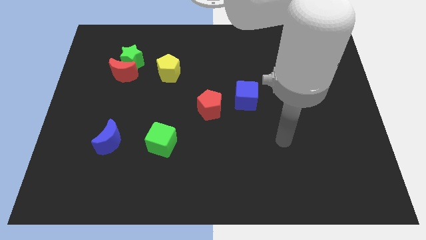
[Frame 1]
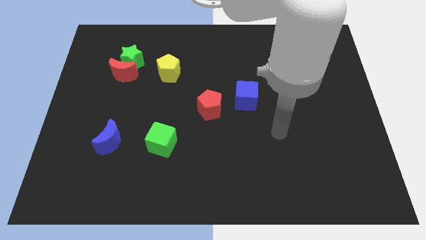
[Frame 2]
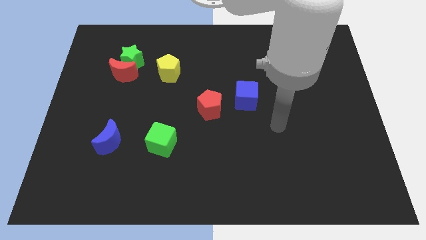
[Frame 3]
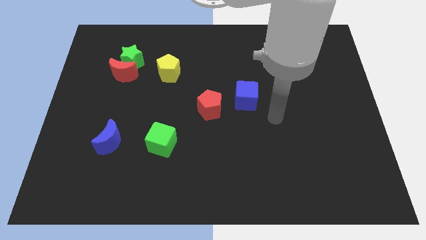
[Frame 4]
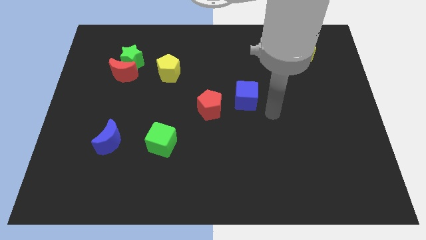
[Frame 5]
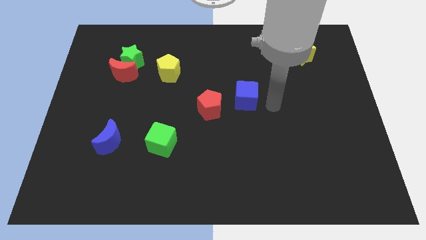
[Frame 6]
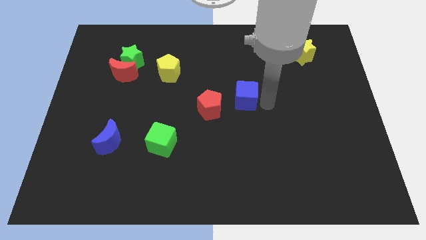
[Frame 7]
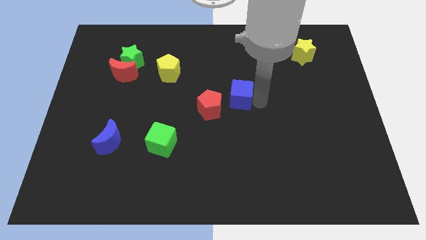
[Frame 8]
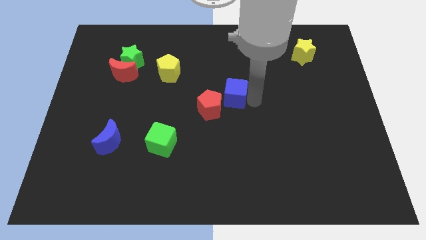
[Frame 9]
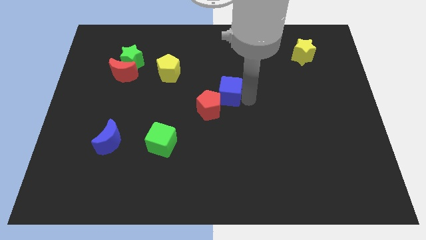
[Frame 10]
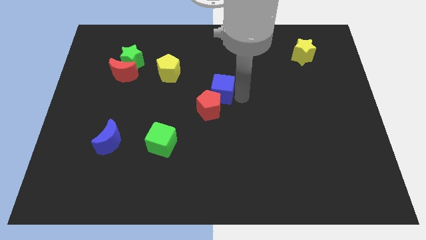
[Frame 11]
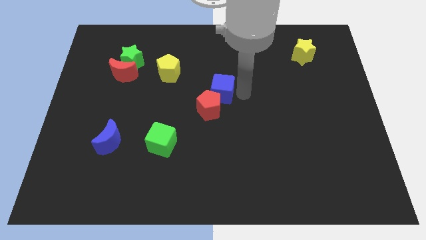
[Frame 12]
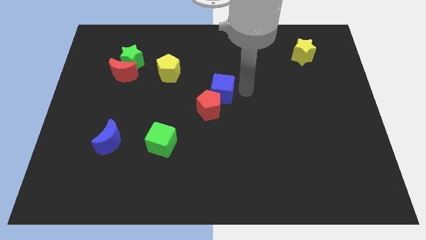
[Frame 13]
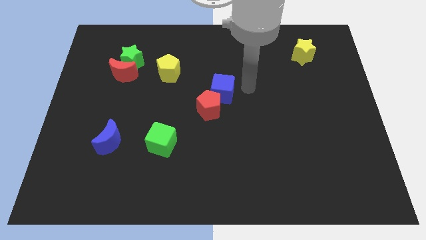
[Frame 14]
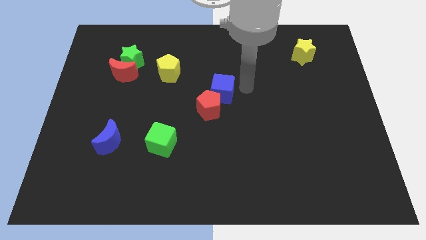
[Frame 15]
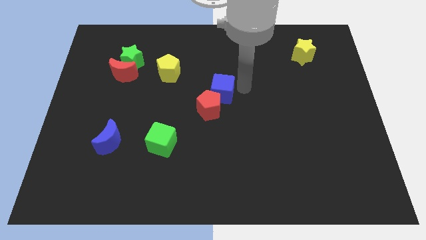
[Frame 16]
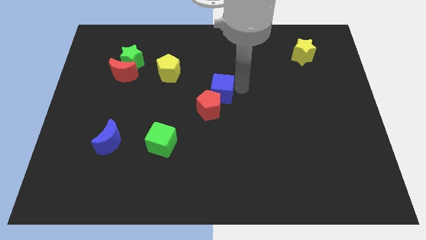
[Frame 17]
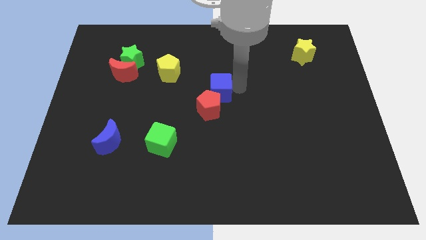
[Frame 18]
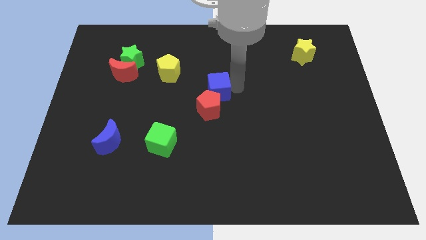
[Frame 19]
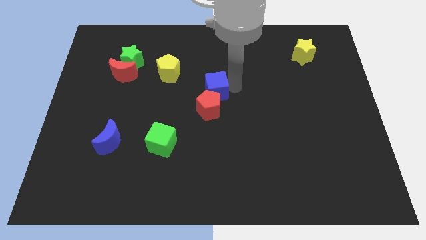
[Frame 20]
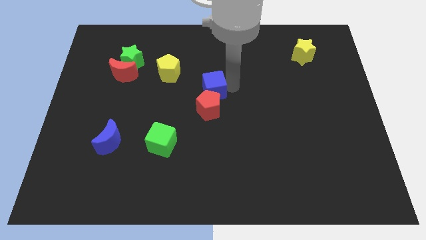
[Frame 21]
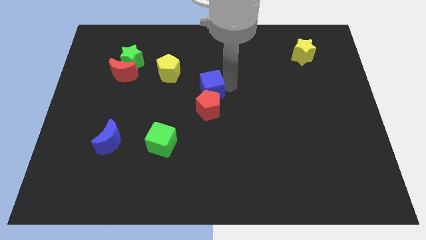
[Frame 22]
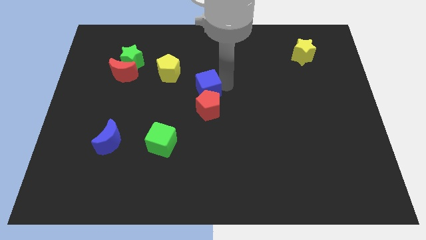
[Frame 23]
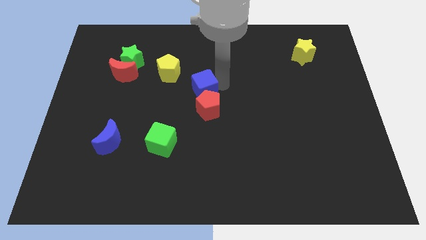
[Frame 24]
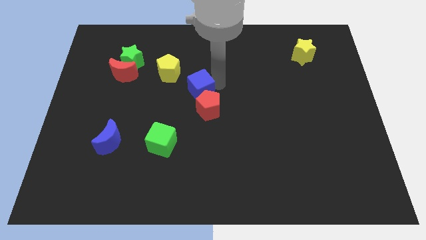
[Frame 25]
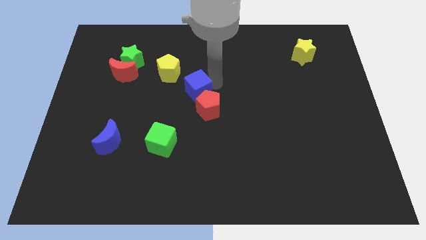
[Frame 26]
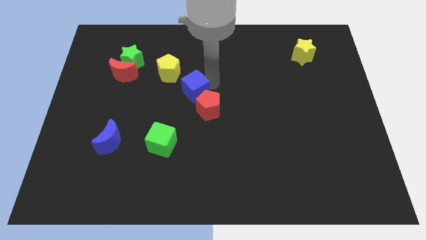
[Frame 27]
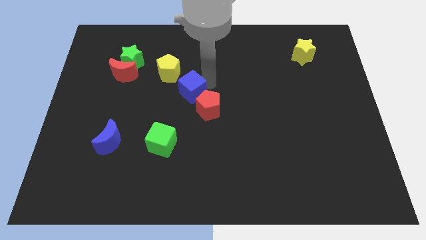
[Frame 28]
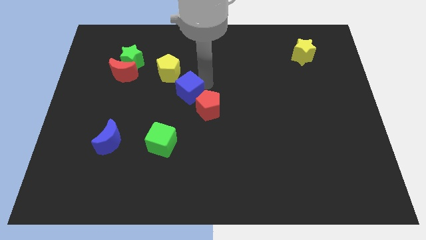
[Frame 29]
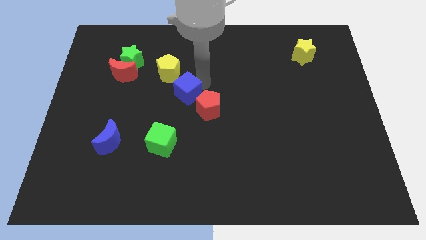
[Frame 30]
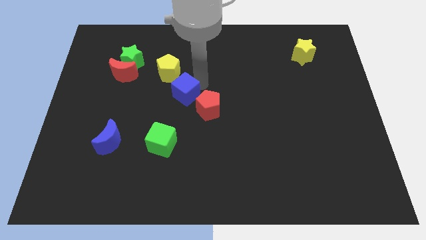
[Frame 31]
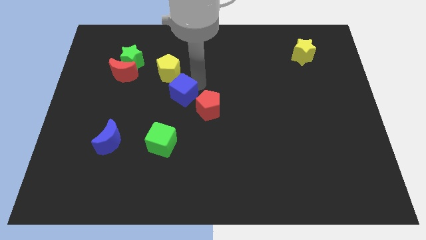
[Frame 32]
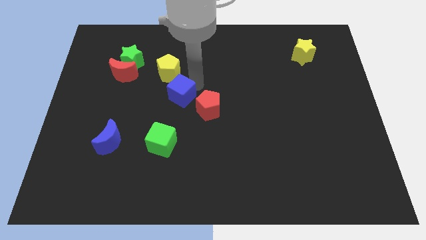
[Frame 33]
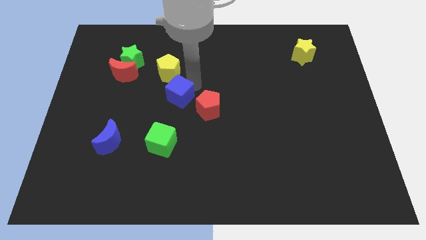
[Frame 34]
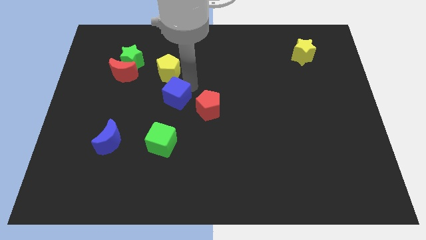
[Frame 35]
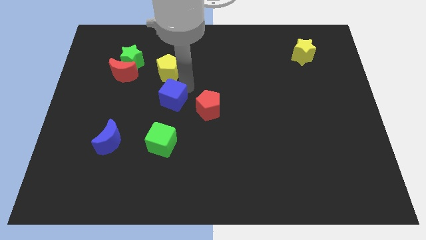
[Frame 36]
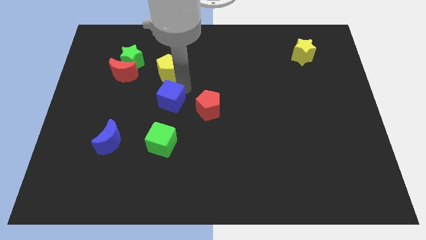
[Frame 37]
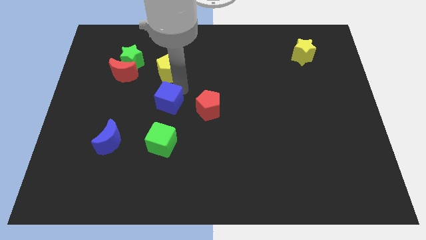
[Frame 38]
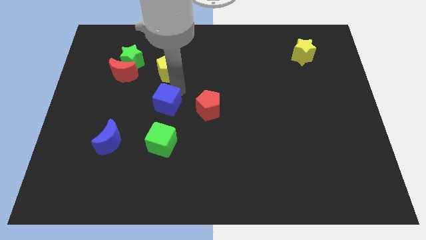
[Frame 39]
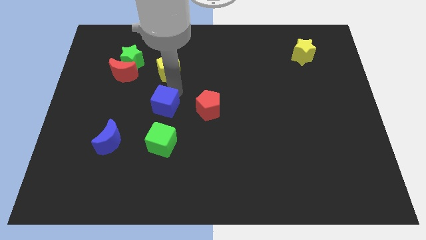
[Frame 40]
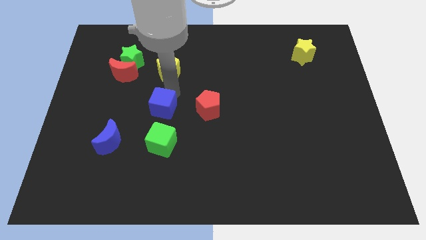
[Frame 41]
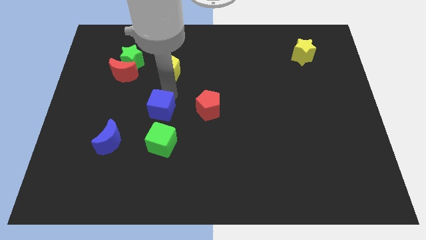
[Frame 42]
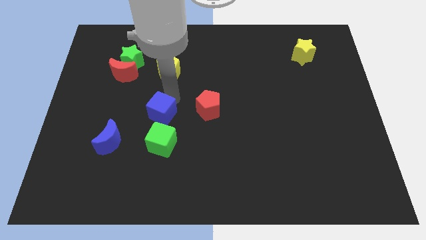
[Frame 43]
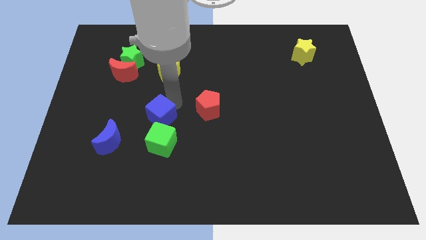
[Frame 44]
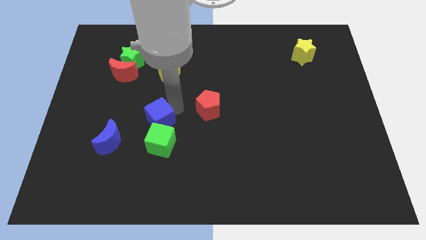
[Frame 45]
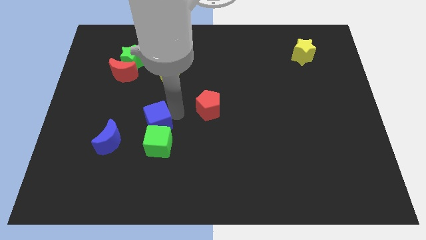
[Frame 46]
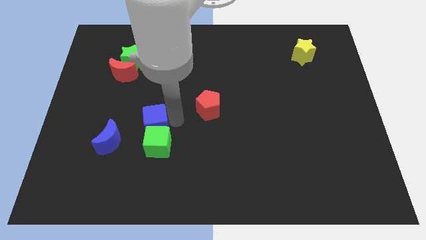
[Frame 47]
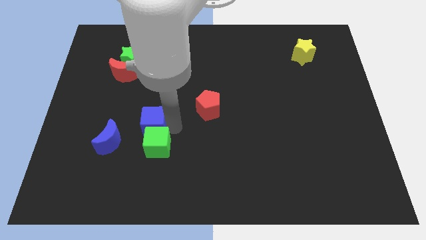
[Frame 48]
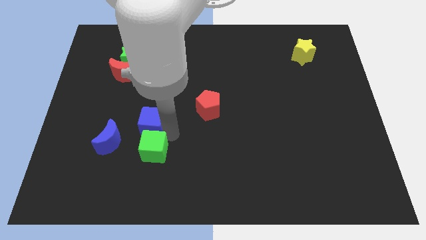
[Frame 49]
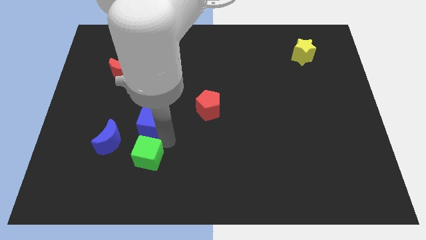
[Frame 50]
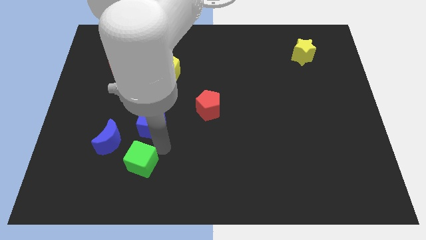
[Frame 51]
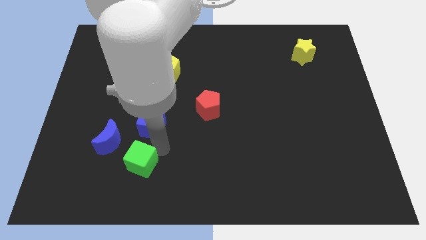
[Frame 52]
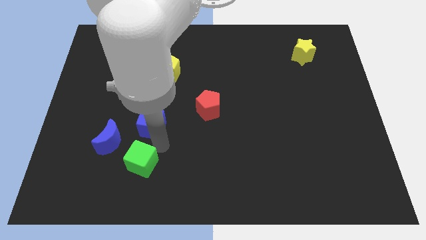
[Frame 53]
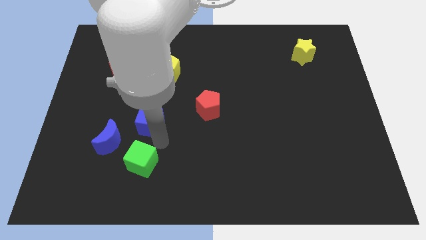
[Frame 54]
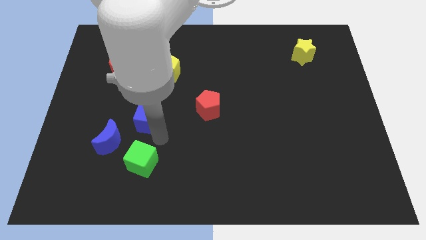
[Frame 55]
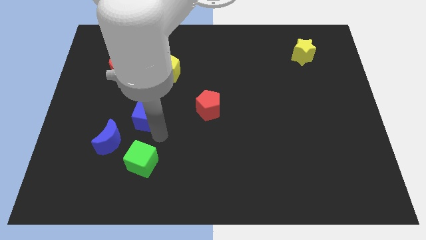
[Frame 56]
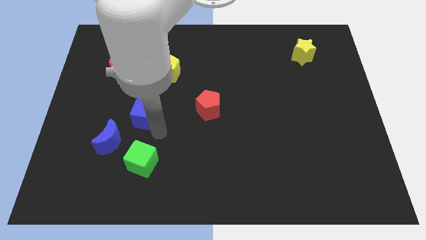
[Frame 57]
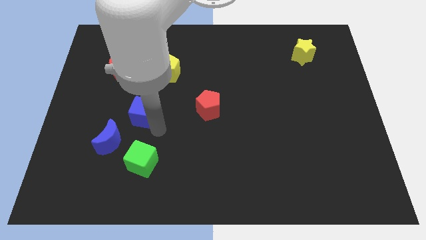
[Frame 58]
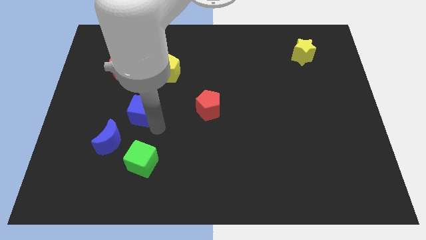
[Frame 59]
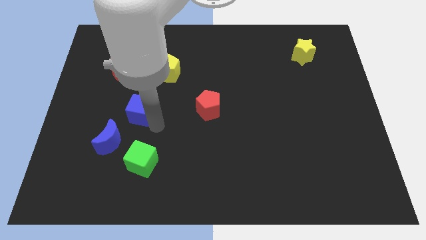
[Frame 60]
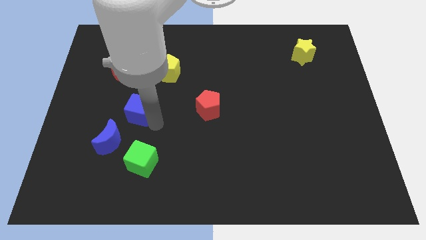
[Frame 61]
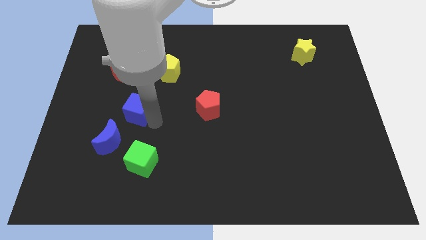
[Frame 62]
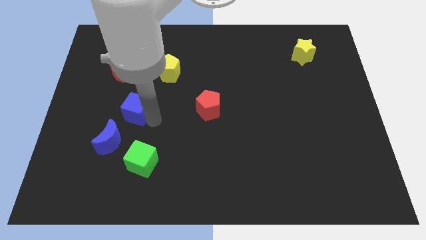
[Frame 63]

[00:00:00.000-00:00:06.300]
push the blue cube to the top of the blue moon
